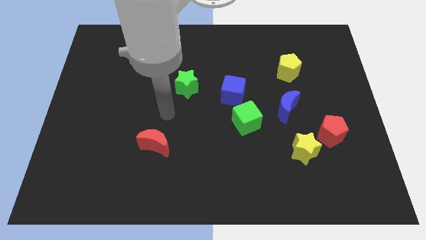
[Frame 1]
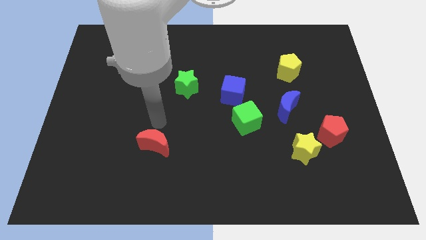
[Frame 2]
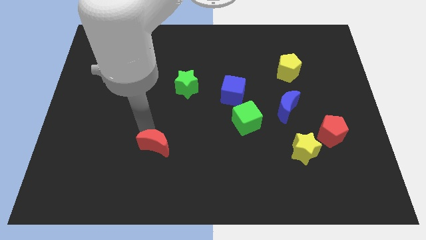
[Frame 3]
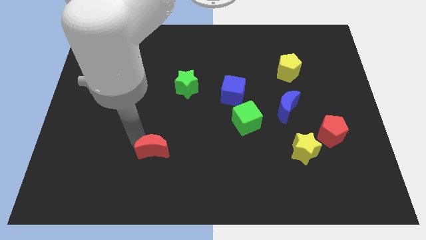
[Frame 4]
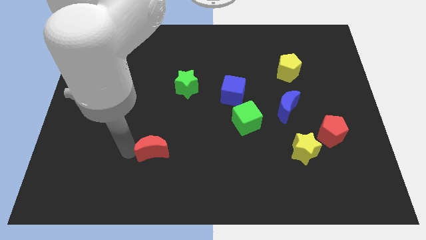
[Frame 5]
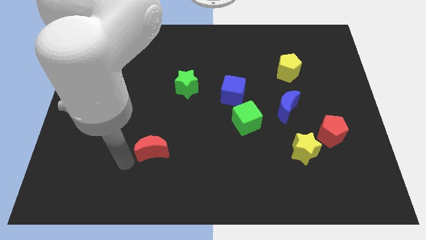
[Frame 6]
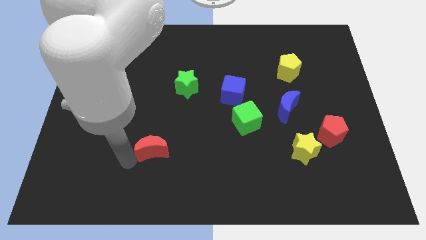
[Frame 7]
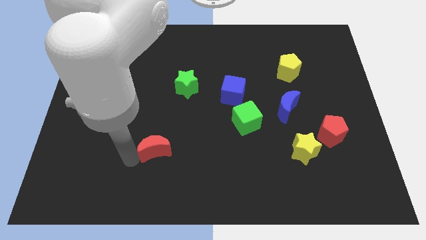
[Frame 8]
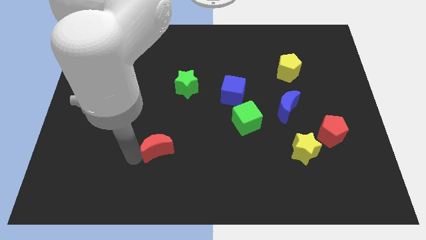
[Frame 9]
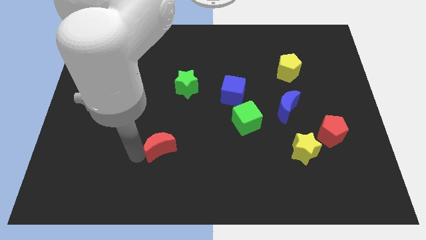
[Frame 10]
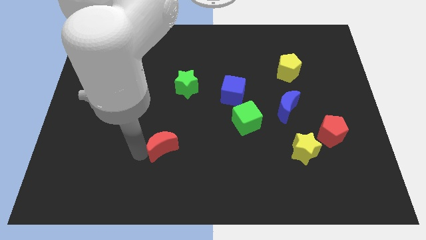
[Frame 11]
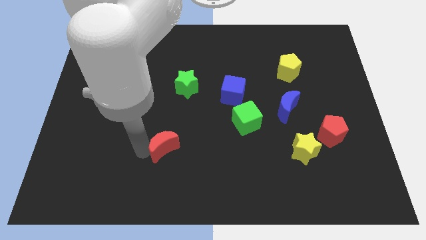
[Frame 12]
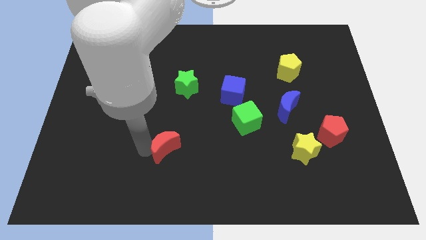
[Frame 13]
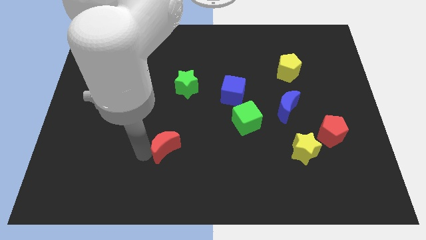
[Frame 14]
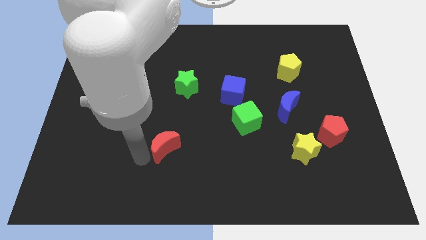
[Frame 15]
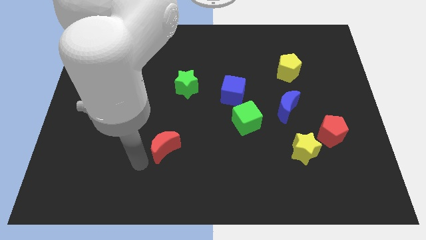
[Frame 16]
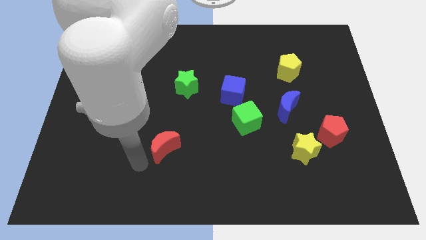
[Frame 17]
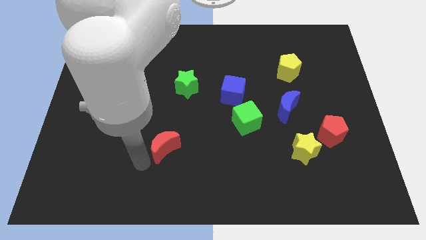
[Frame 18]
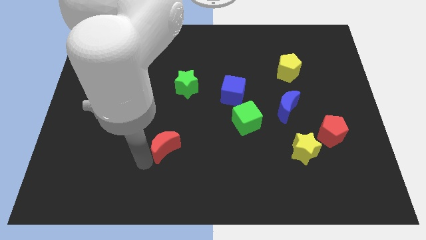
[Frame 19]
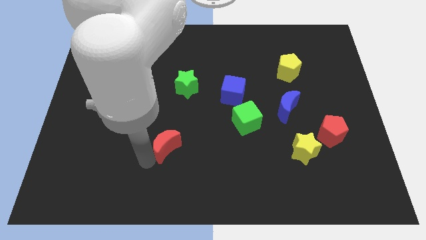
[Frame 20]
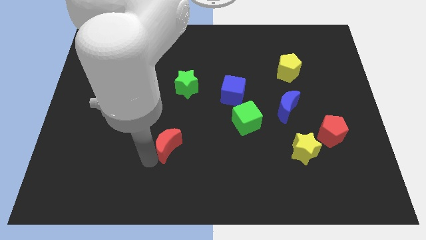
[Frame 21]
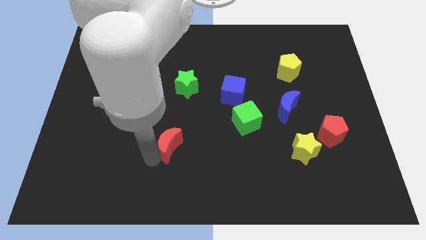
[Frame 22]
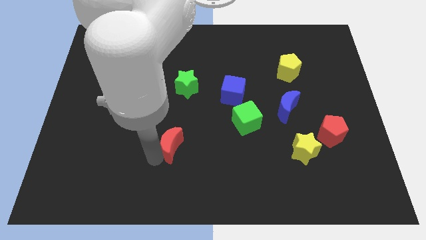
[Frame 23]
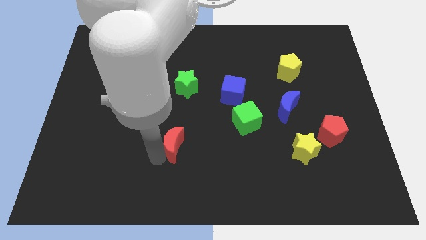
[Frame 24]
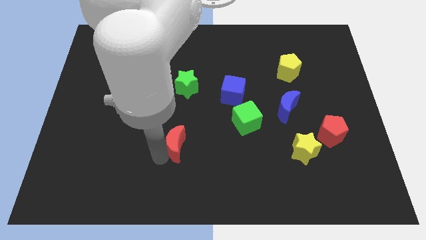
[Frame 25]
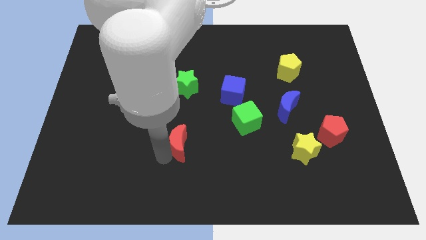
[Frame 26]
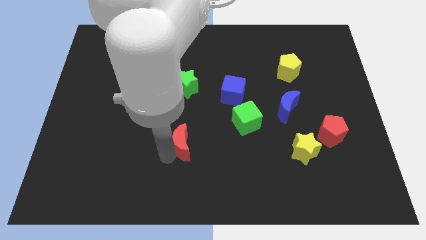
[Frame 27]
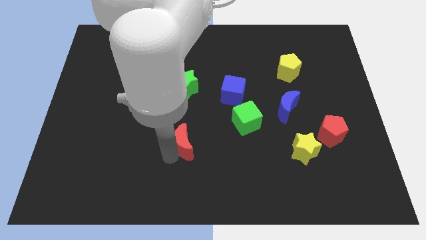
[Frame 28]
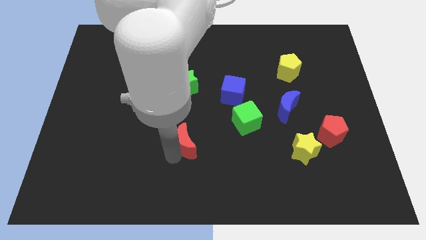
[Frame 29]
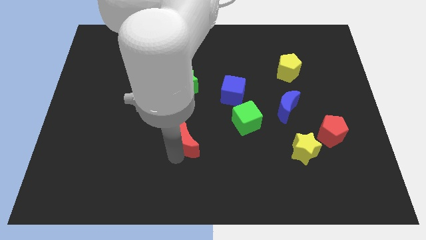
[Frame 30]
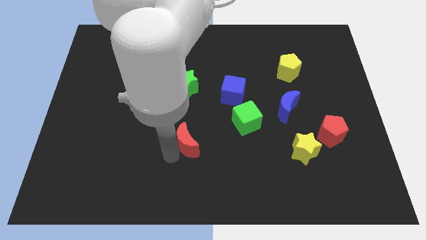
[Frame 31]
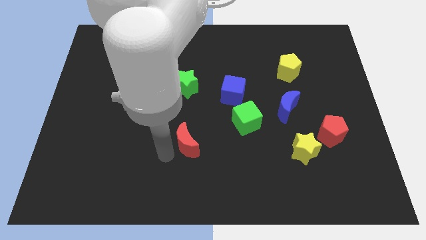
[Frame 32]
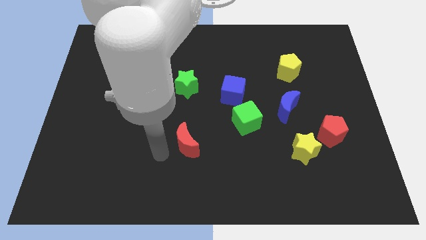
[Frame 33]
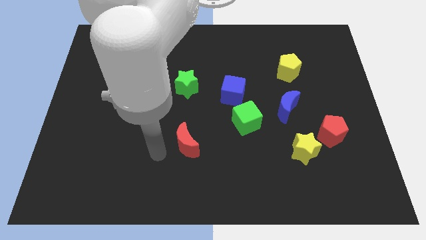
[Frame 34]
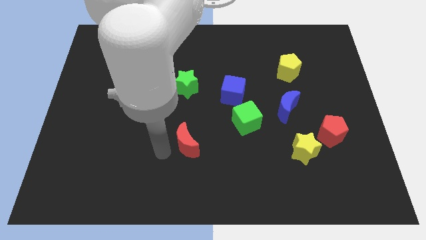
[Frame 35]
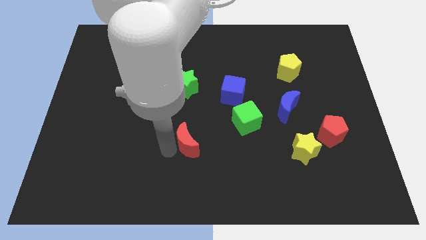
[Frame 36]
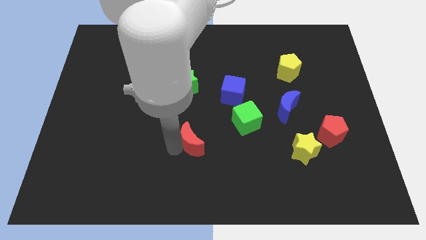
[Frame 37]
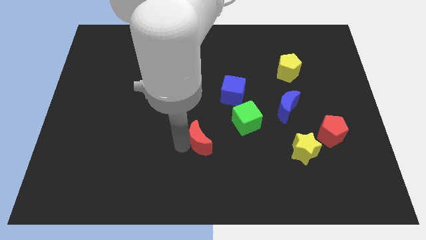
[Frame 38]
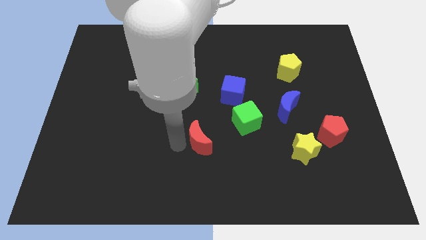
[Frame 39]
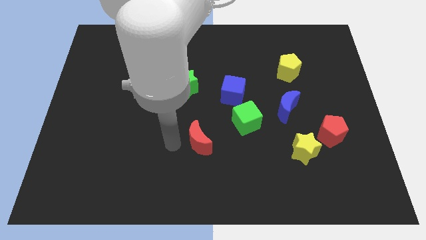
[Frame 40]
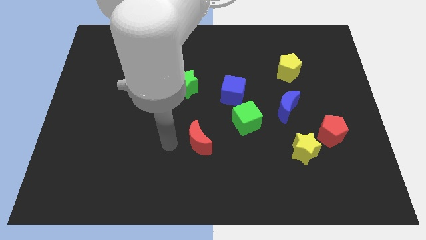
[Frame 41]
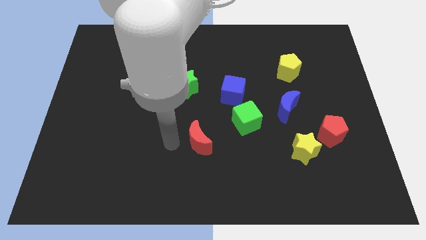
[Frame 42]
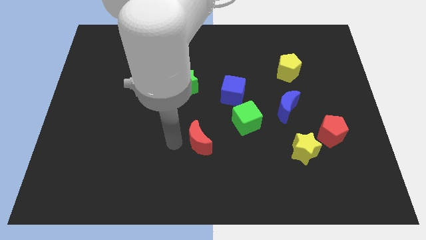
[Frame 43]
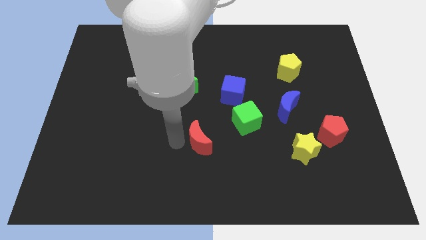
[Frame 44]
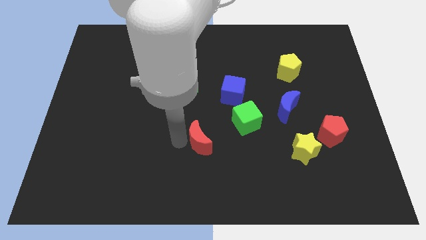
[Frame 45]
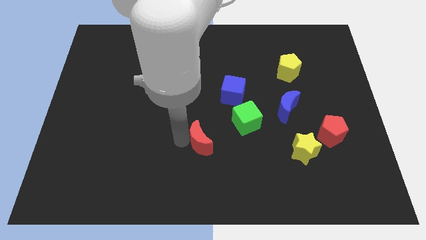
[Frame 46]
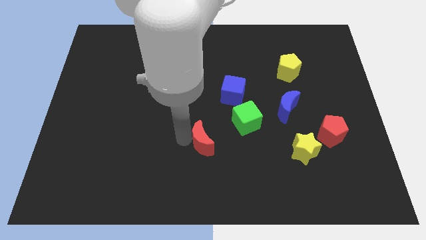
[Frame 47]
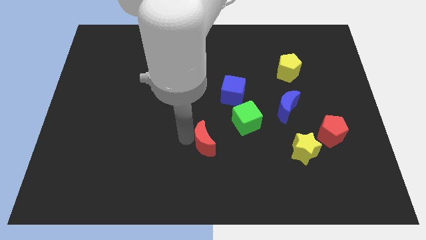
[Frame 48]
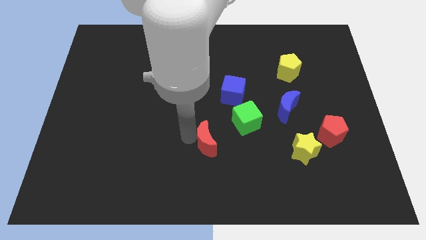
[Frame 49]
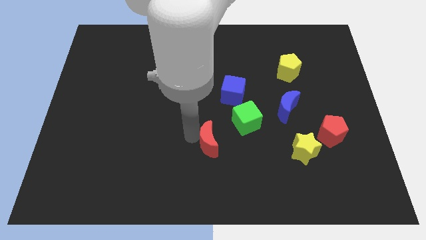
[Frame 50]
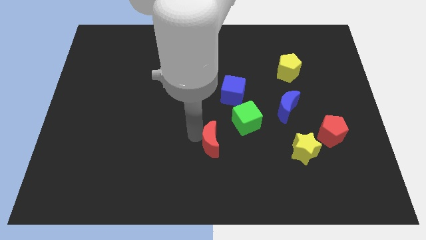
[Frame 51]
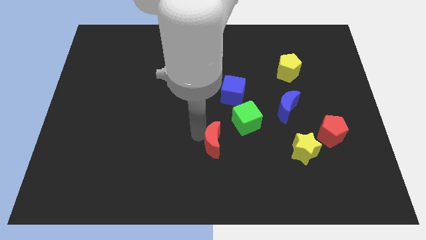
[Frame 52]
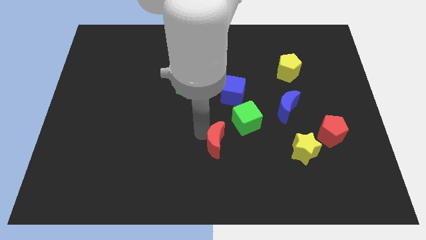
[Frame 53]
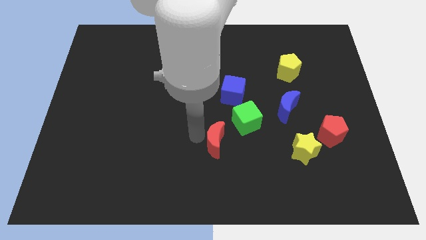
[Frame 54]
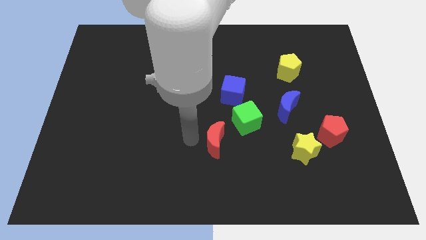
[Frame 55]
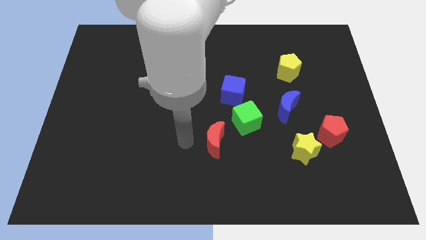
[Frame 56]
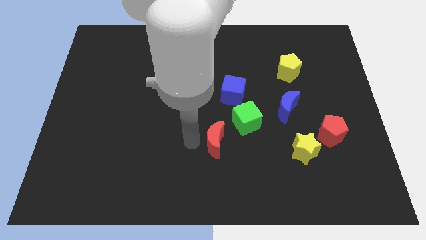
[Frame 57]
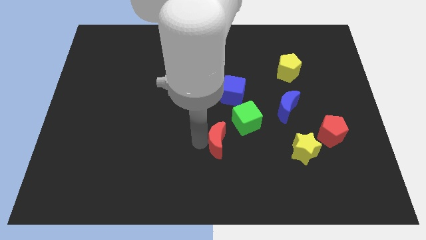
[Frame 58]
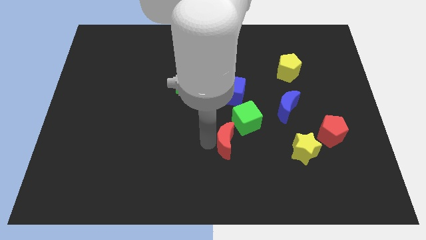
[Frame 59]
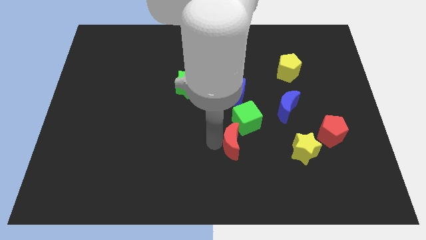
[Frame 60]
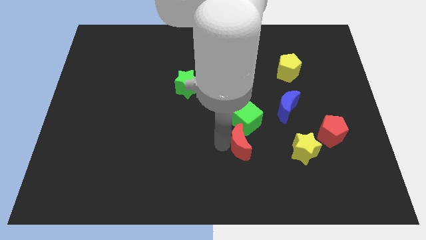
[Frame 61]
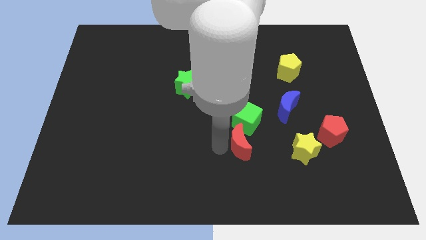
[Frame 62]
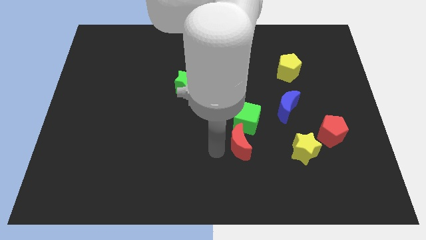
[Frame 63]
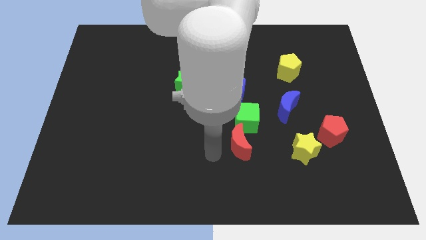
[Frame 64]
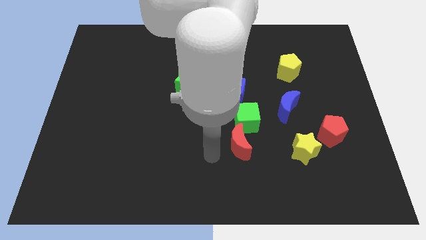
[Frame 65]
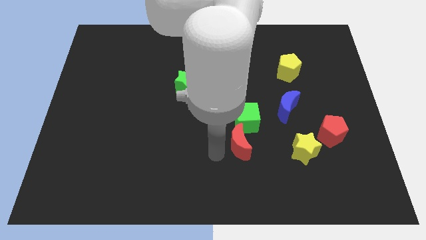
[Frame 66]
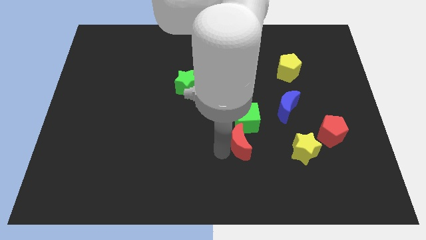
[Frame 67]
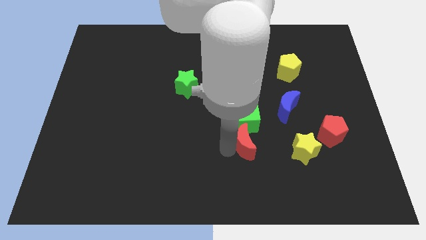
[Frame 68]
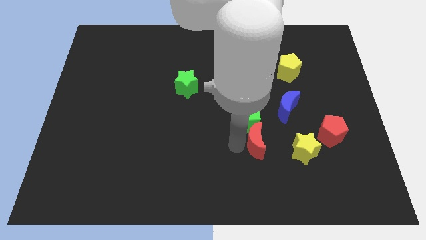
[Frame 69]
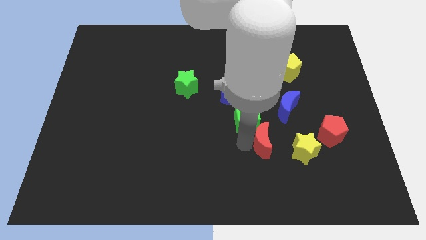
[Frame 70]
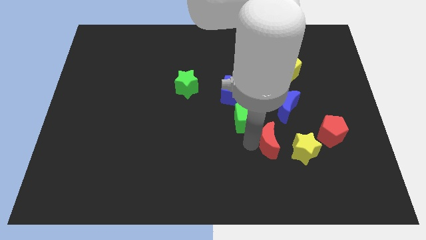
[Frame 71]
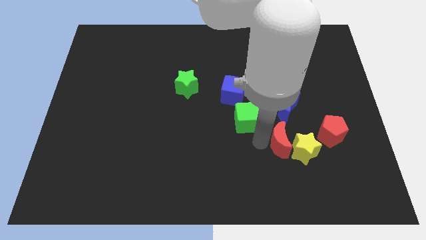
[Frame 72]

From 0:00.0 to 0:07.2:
put the red moon close to the yellow star

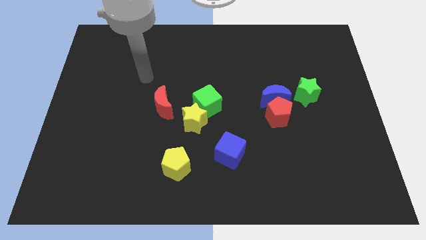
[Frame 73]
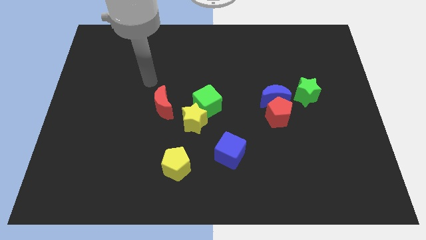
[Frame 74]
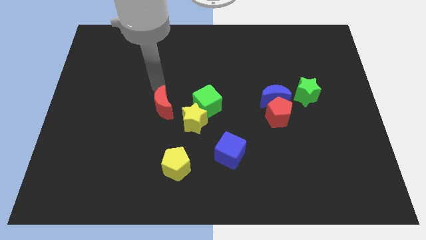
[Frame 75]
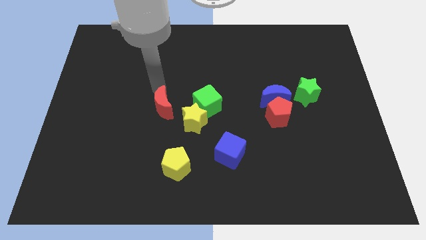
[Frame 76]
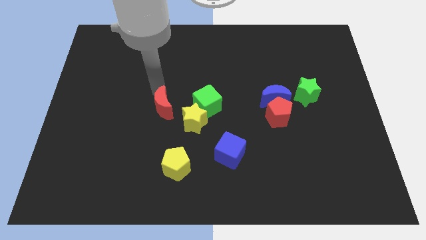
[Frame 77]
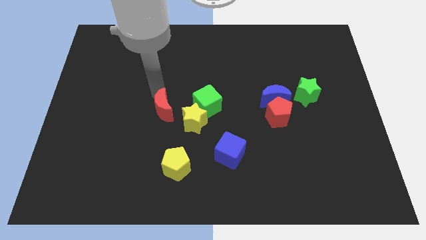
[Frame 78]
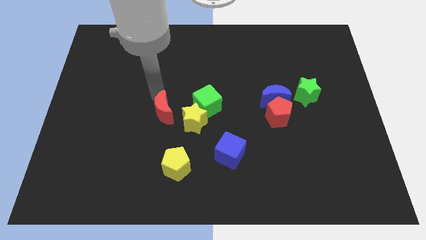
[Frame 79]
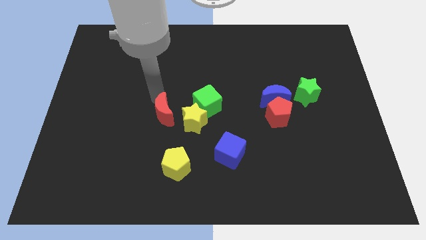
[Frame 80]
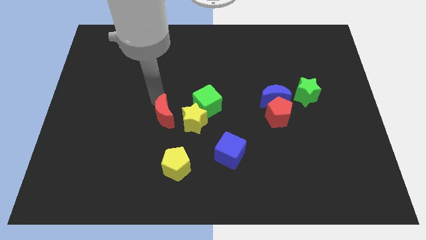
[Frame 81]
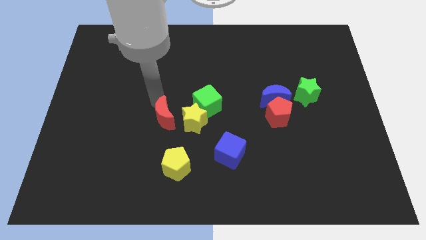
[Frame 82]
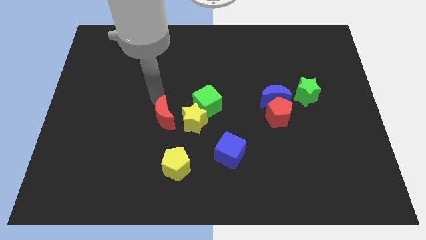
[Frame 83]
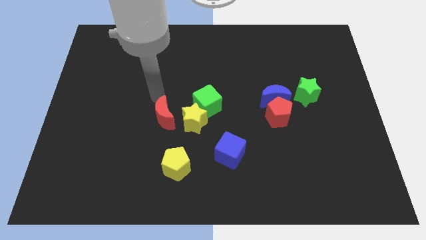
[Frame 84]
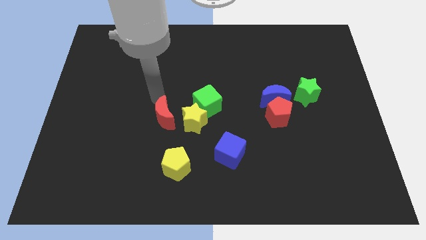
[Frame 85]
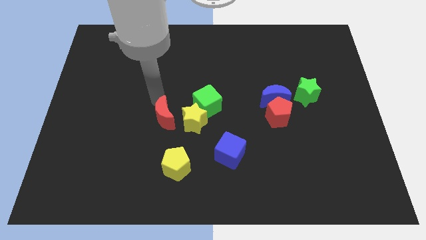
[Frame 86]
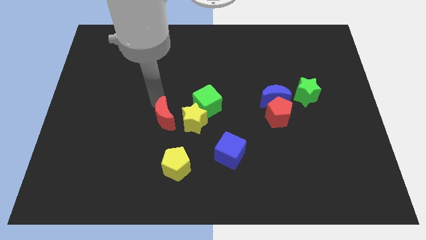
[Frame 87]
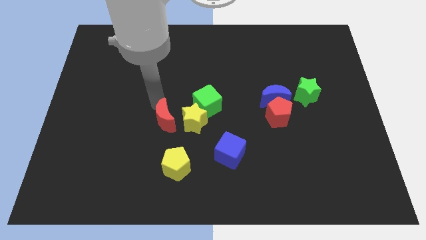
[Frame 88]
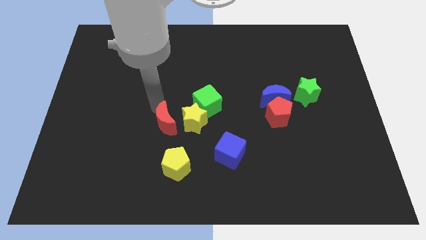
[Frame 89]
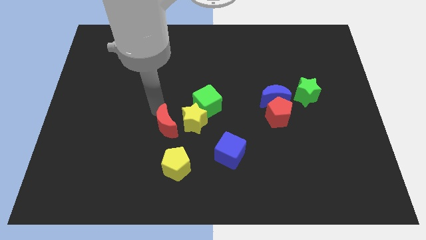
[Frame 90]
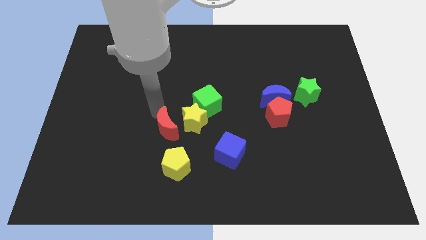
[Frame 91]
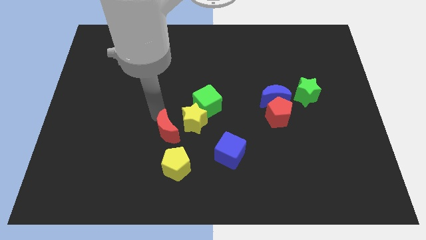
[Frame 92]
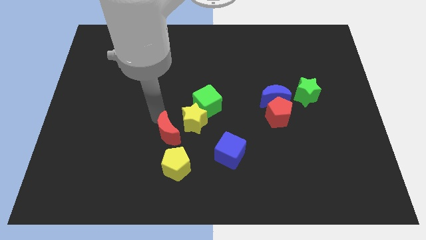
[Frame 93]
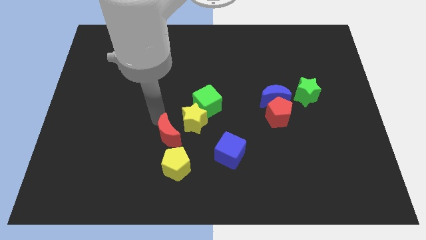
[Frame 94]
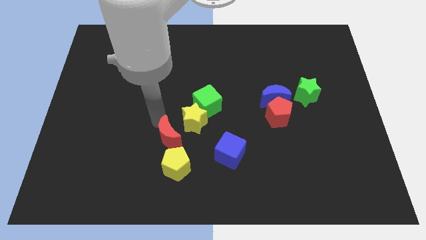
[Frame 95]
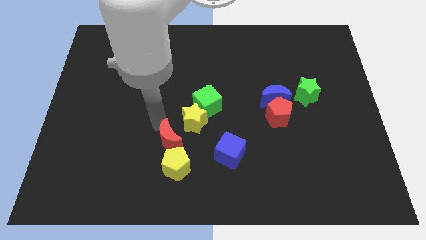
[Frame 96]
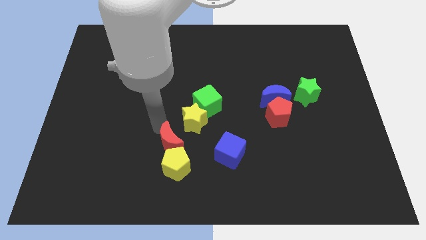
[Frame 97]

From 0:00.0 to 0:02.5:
put the red moon towards the yellow pentagon
